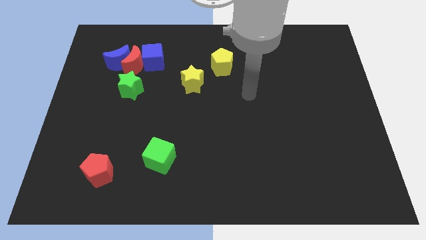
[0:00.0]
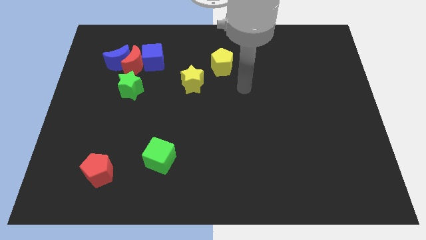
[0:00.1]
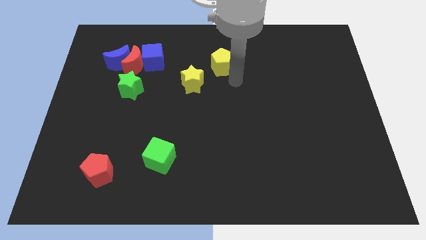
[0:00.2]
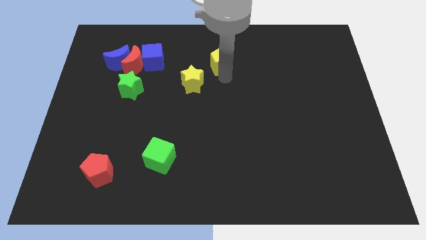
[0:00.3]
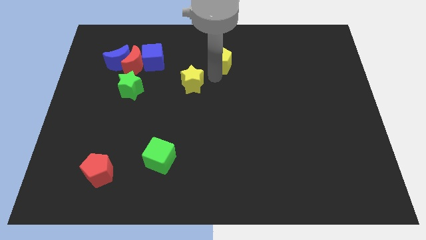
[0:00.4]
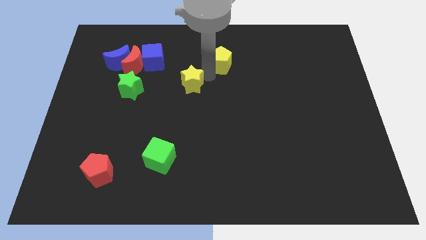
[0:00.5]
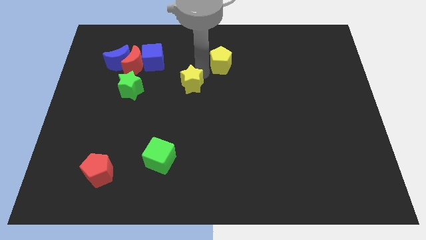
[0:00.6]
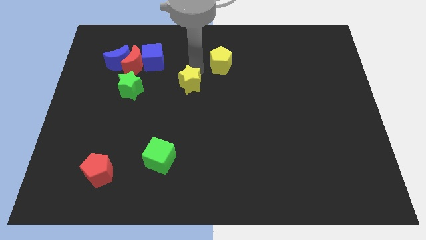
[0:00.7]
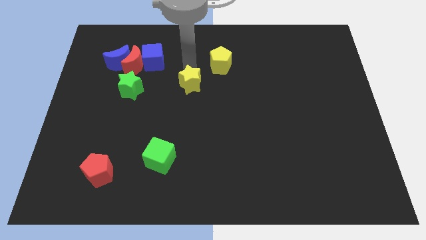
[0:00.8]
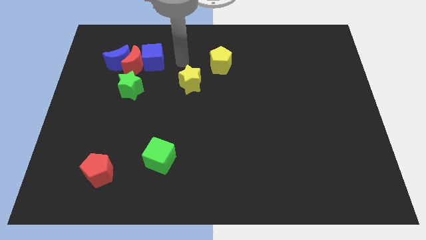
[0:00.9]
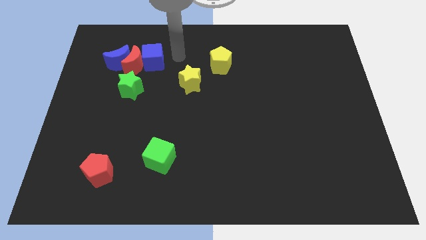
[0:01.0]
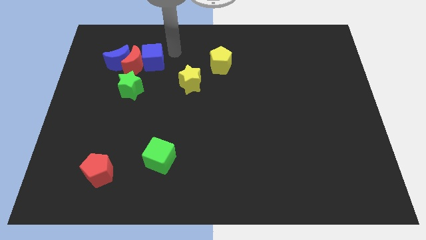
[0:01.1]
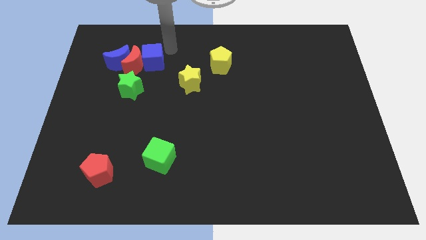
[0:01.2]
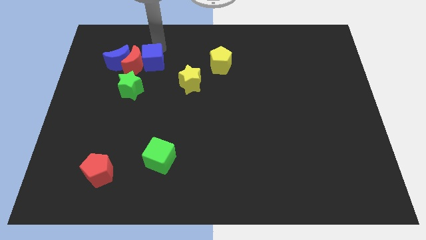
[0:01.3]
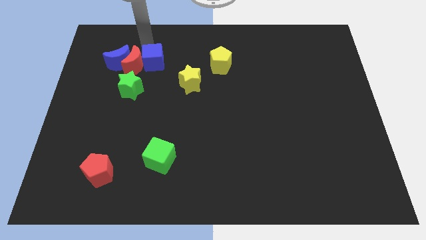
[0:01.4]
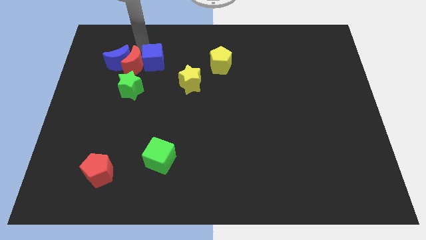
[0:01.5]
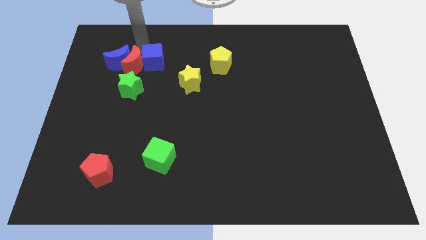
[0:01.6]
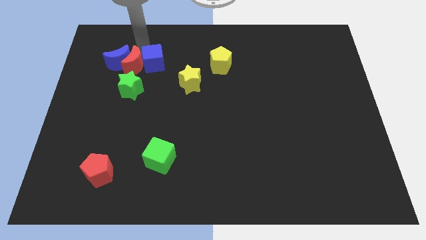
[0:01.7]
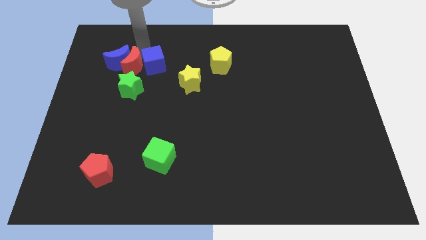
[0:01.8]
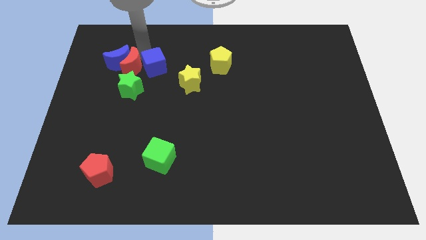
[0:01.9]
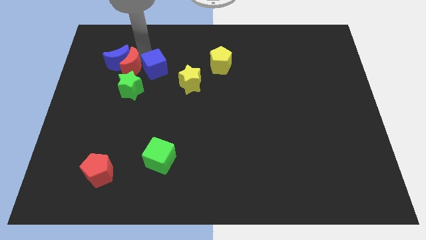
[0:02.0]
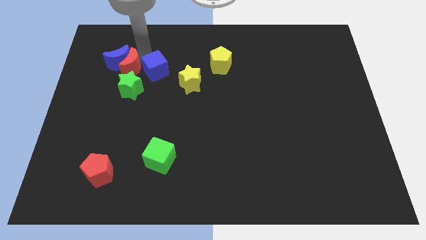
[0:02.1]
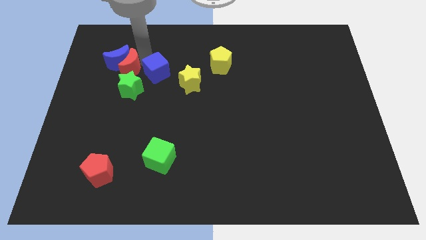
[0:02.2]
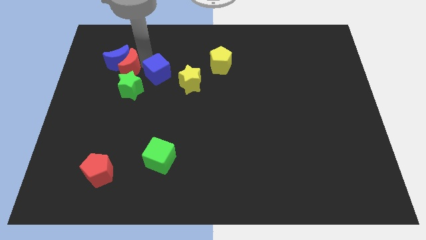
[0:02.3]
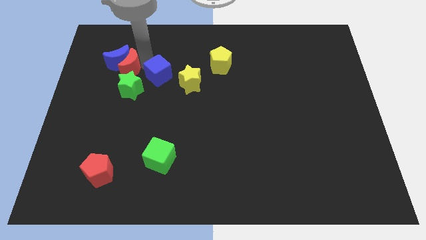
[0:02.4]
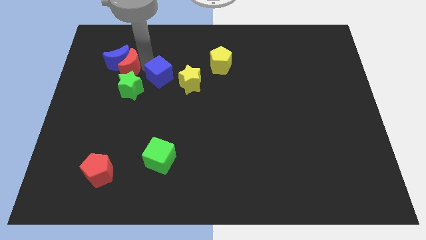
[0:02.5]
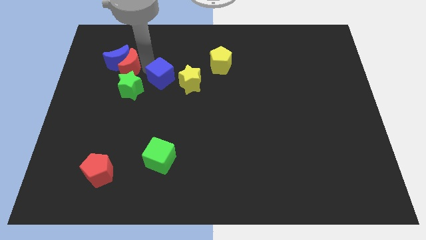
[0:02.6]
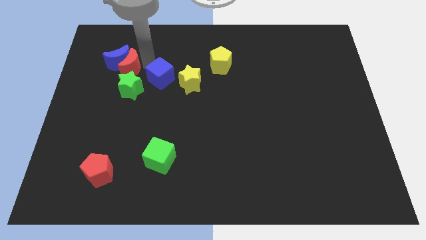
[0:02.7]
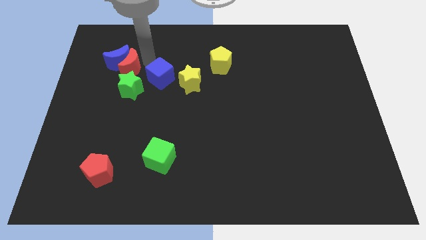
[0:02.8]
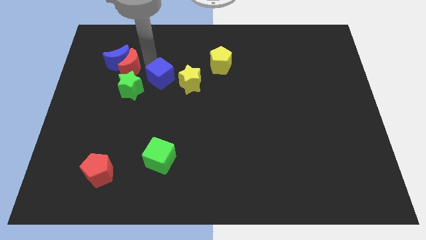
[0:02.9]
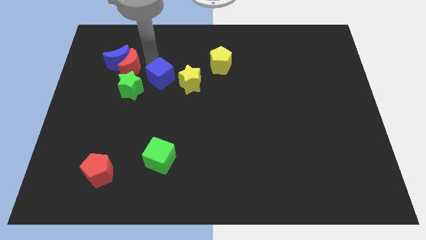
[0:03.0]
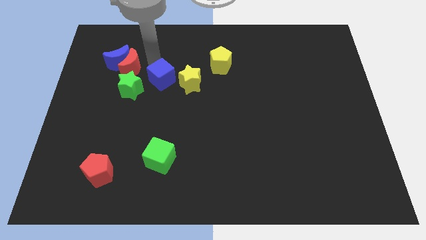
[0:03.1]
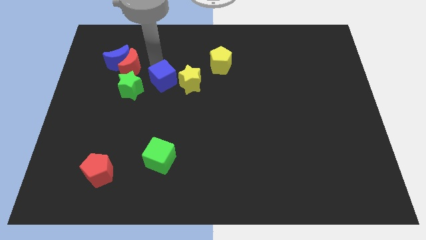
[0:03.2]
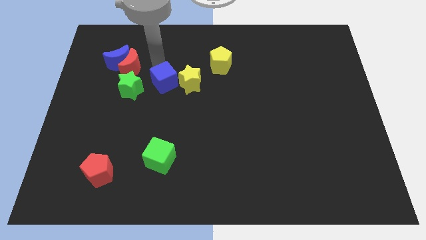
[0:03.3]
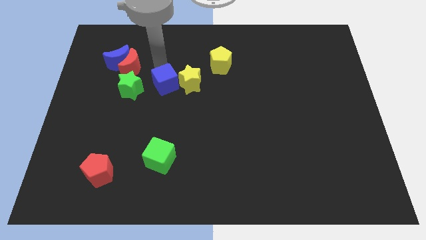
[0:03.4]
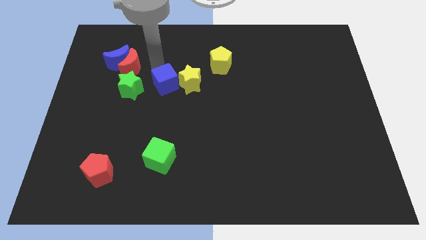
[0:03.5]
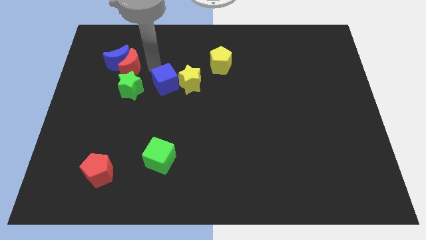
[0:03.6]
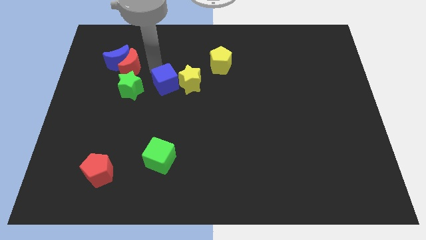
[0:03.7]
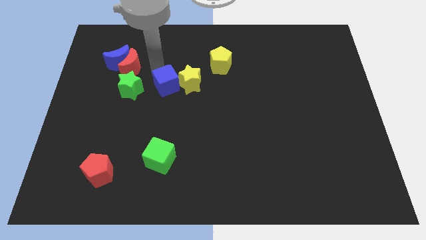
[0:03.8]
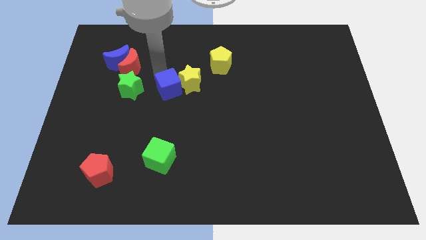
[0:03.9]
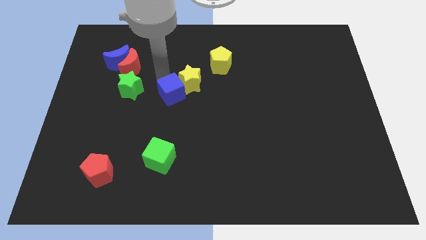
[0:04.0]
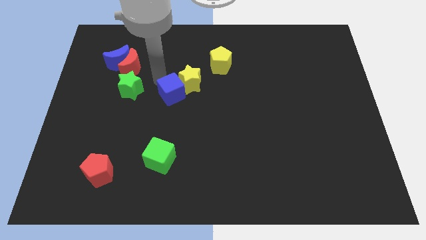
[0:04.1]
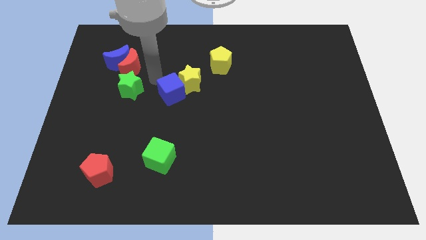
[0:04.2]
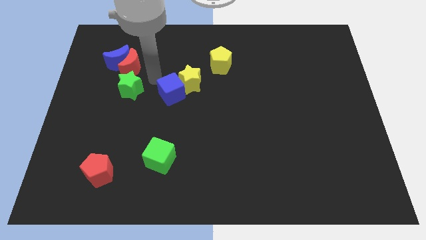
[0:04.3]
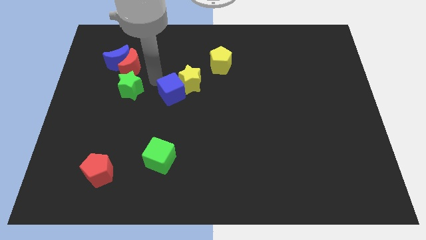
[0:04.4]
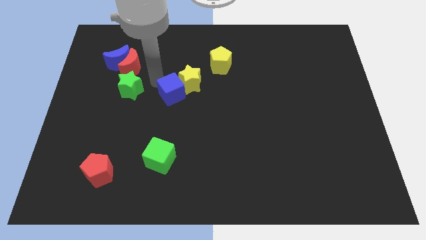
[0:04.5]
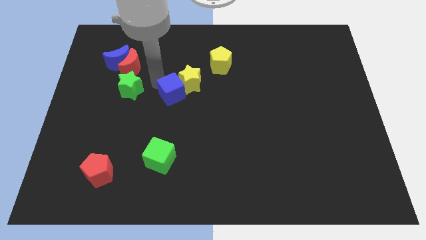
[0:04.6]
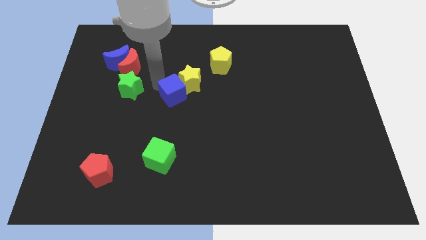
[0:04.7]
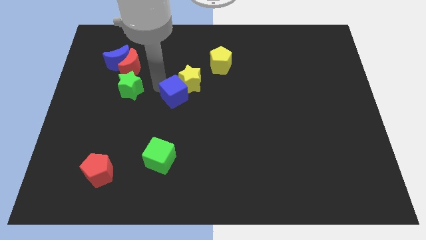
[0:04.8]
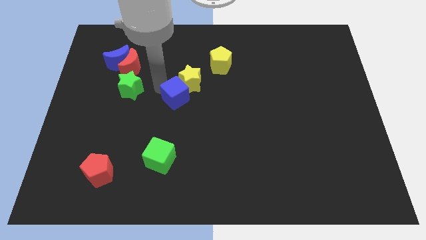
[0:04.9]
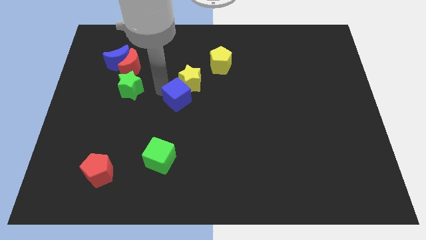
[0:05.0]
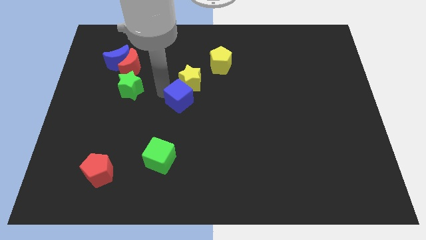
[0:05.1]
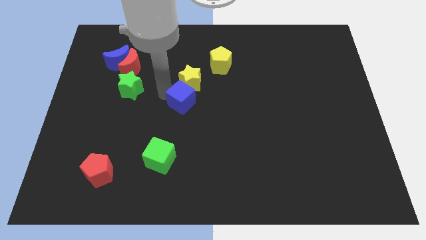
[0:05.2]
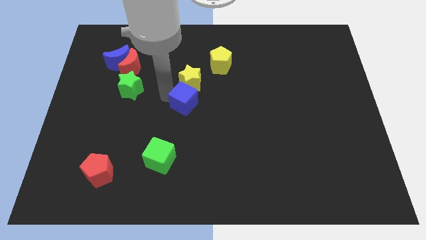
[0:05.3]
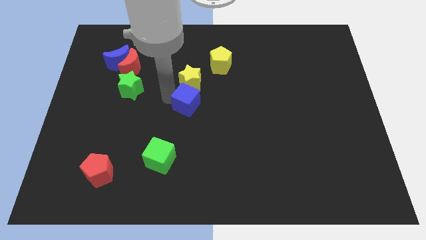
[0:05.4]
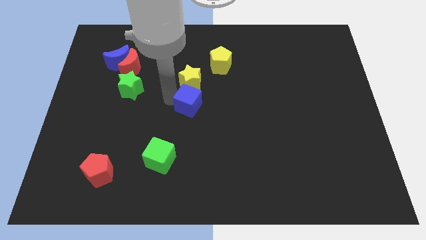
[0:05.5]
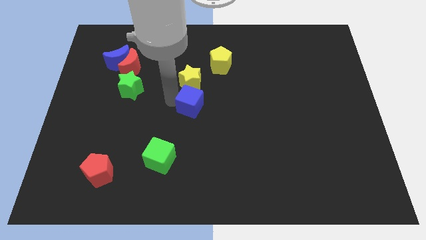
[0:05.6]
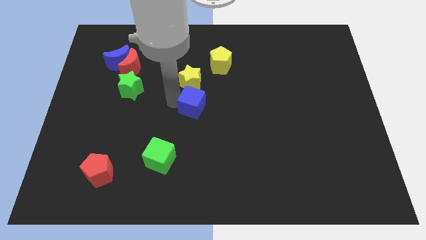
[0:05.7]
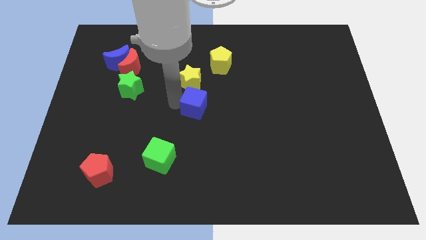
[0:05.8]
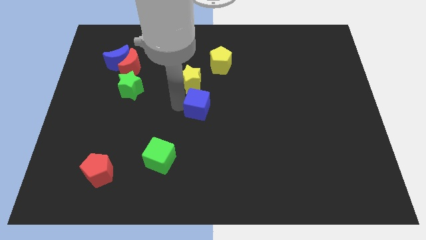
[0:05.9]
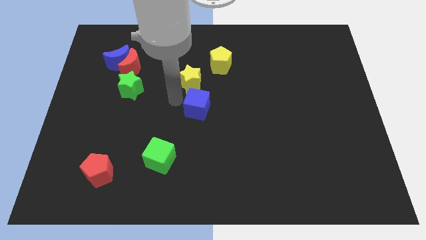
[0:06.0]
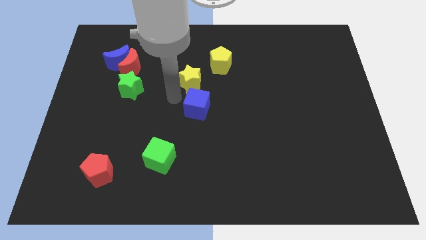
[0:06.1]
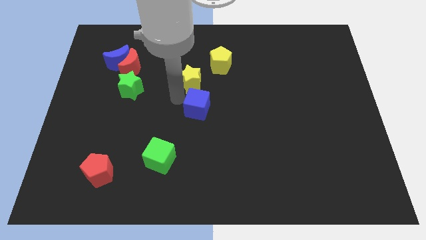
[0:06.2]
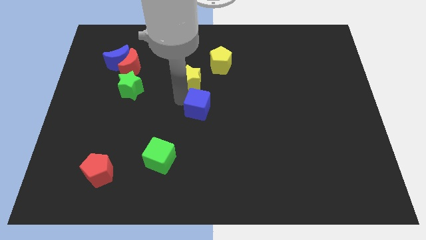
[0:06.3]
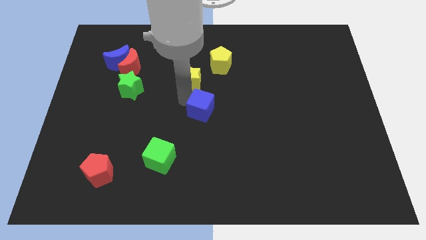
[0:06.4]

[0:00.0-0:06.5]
push the blue cube down and right diagonally

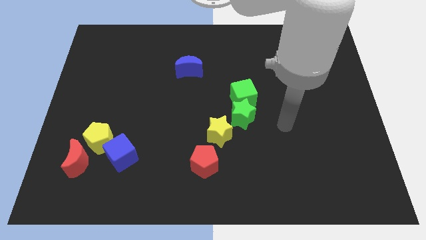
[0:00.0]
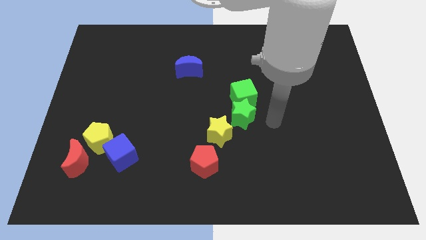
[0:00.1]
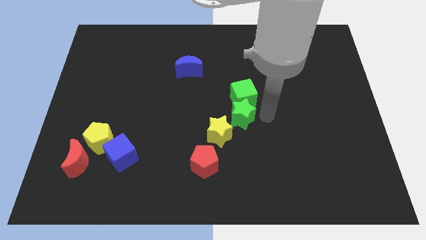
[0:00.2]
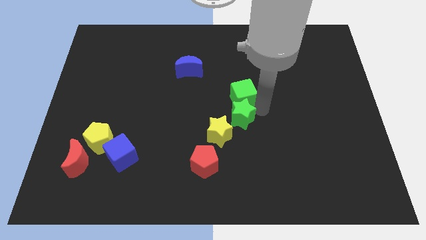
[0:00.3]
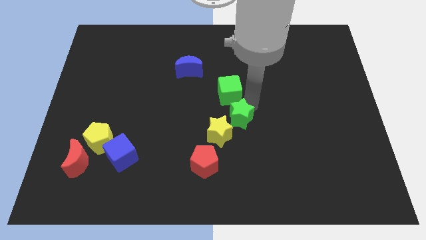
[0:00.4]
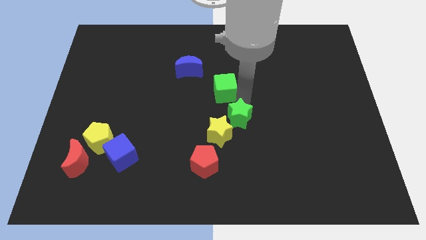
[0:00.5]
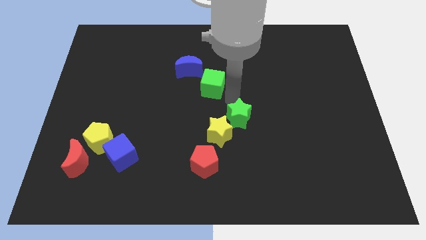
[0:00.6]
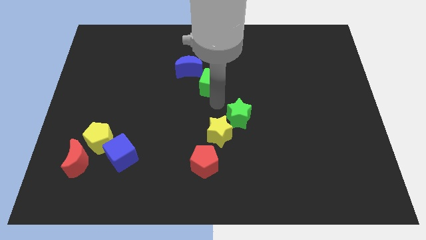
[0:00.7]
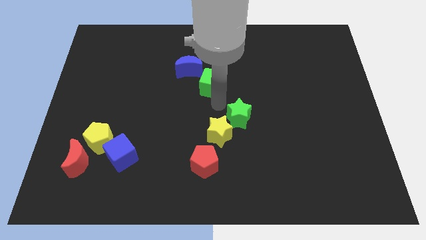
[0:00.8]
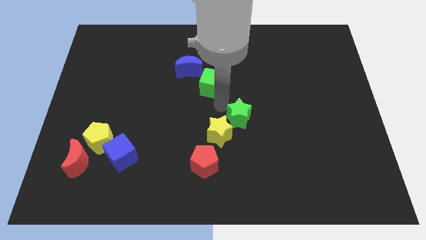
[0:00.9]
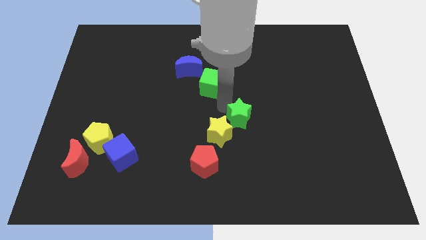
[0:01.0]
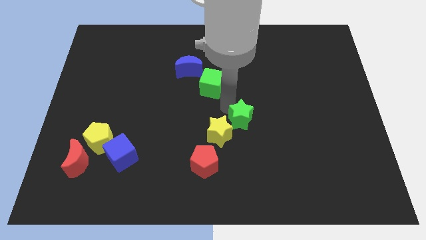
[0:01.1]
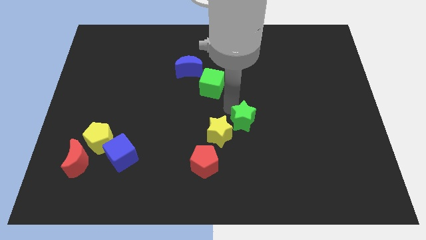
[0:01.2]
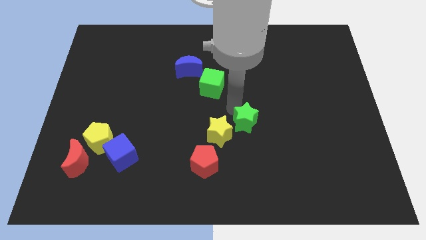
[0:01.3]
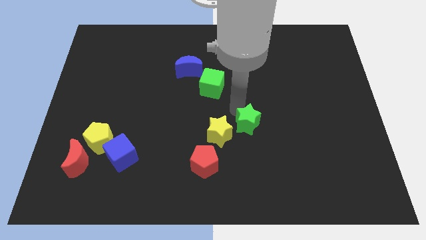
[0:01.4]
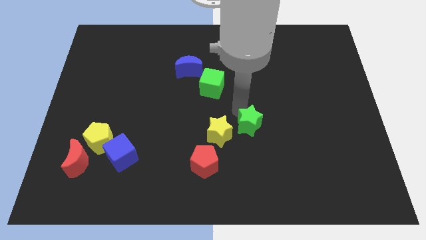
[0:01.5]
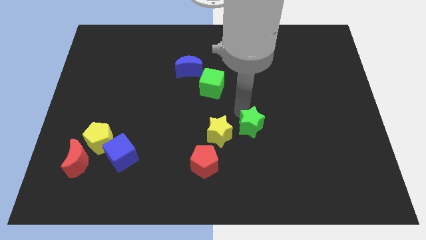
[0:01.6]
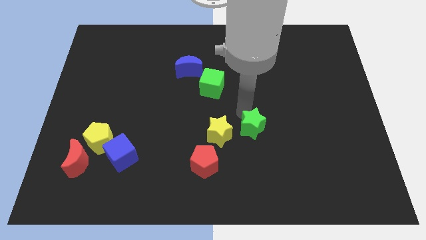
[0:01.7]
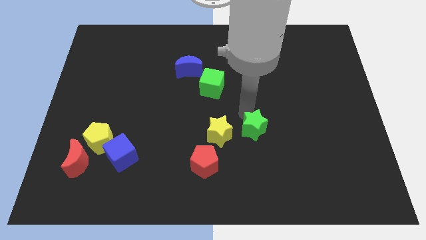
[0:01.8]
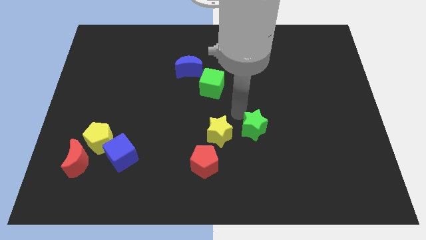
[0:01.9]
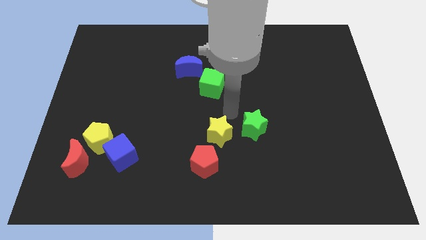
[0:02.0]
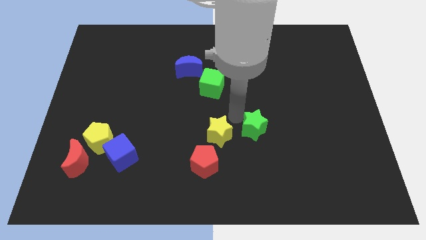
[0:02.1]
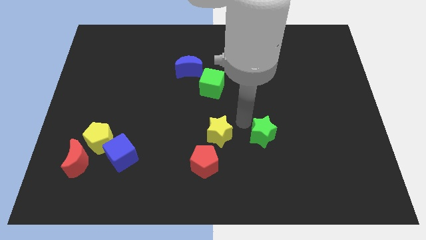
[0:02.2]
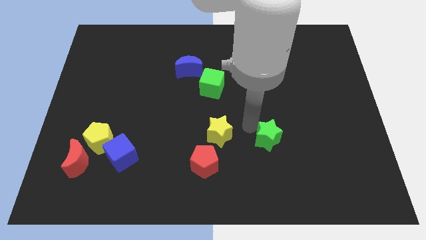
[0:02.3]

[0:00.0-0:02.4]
move the green star slightly down and right
